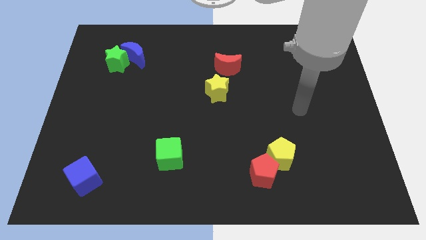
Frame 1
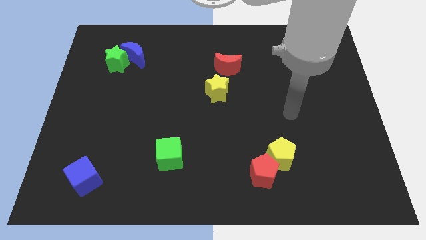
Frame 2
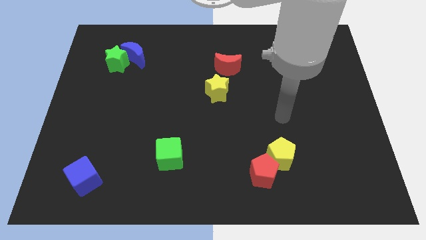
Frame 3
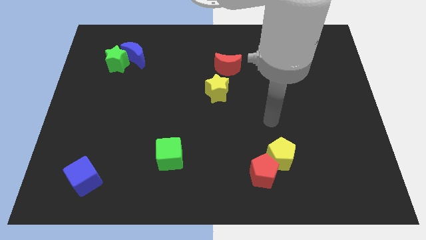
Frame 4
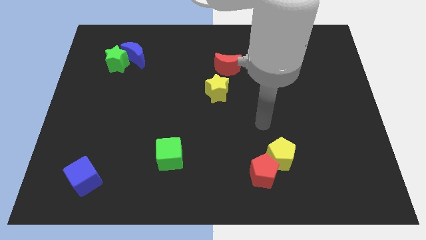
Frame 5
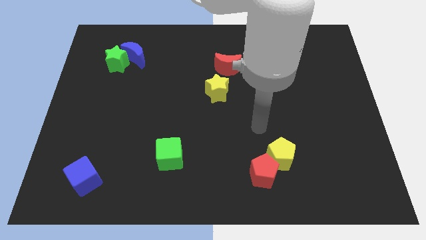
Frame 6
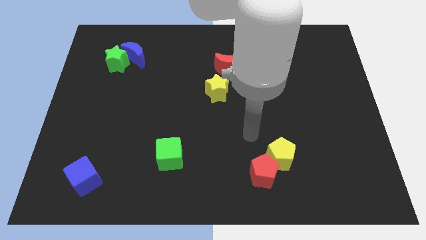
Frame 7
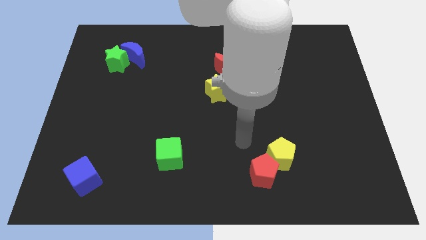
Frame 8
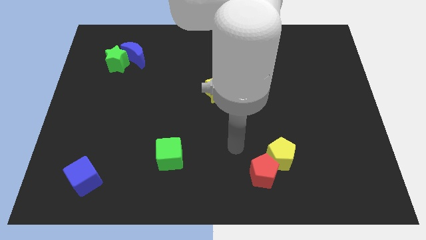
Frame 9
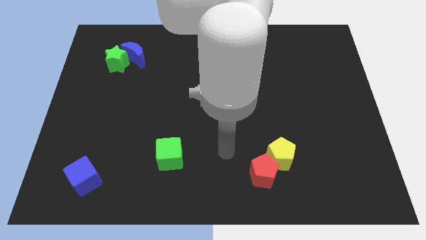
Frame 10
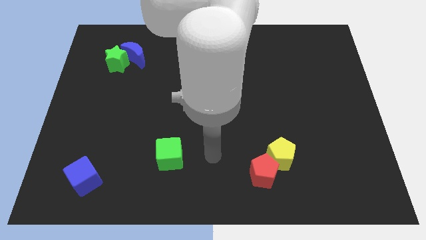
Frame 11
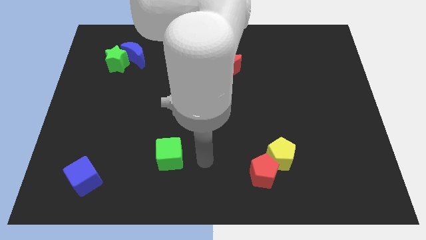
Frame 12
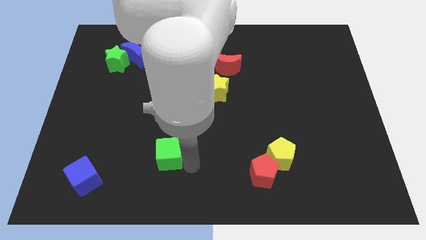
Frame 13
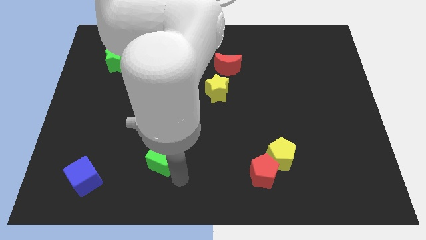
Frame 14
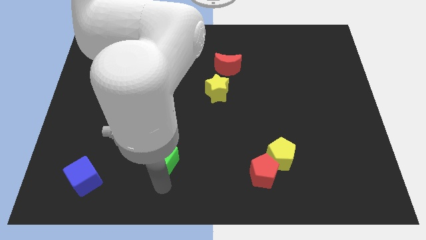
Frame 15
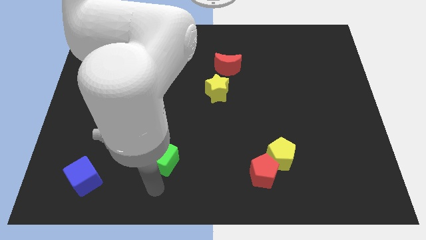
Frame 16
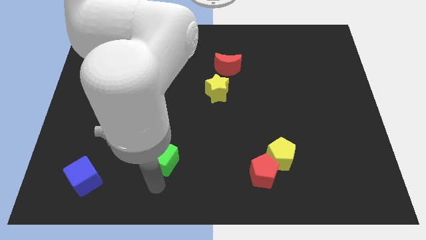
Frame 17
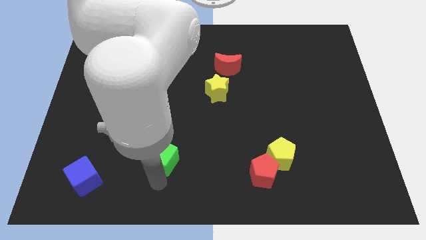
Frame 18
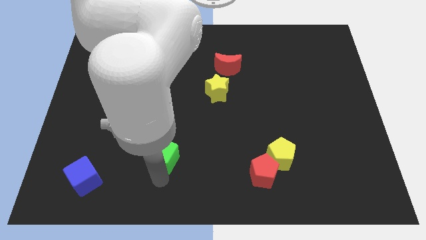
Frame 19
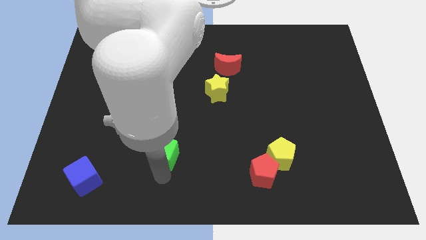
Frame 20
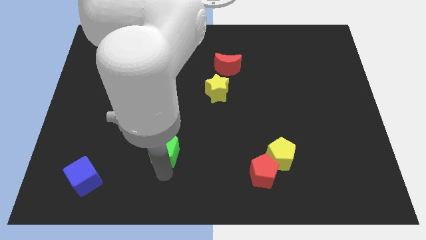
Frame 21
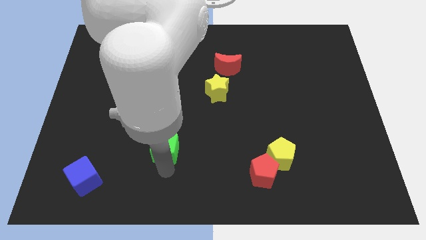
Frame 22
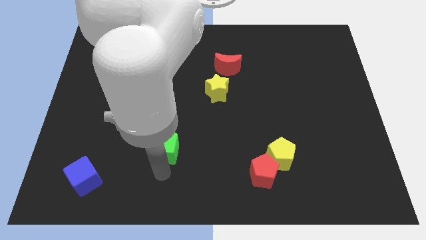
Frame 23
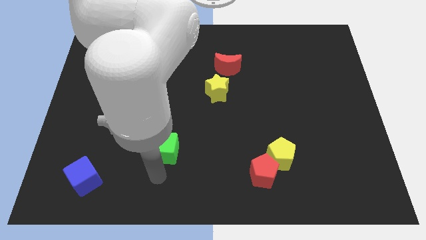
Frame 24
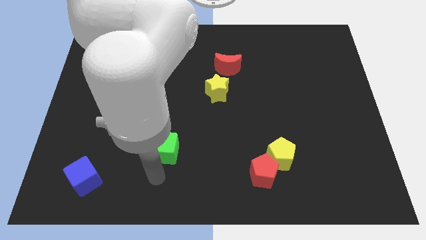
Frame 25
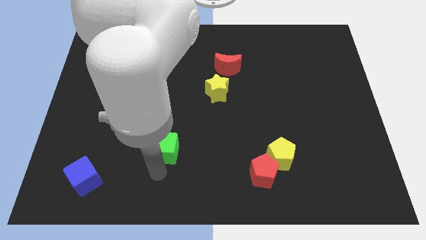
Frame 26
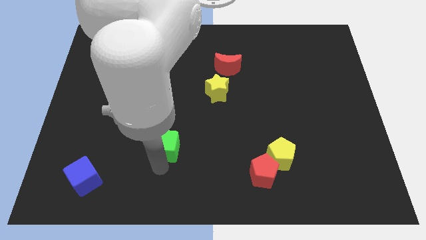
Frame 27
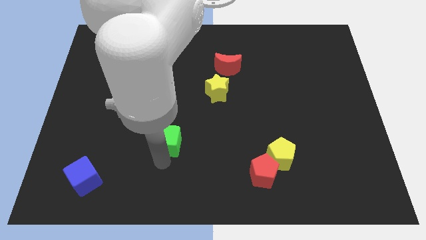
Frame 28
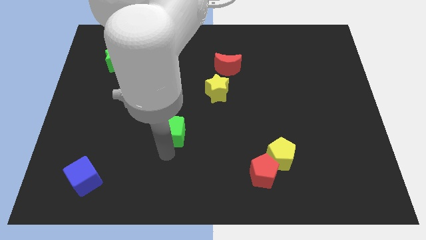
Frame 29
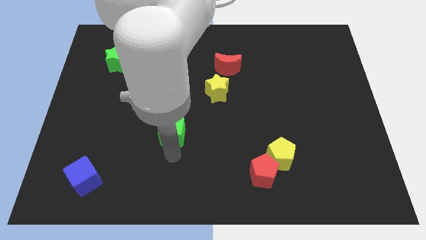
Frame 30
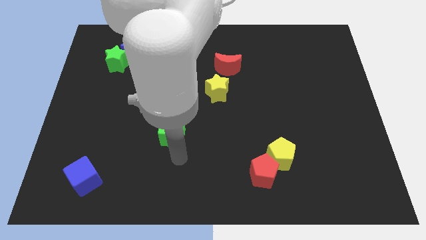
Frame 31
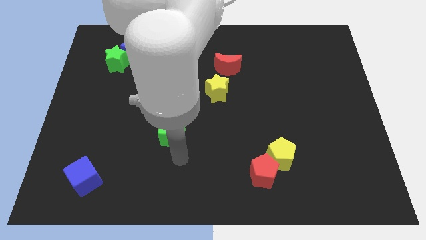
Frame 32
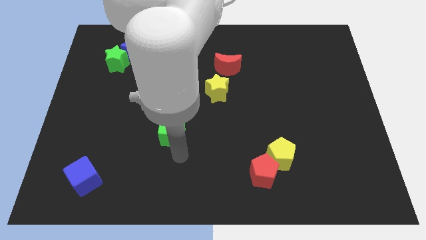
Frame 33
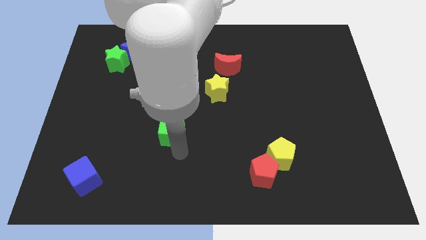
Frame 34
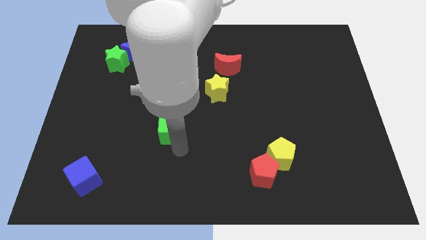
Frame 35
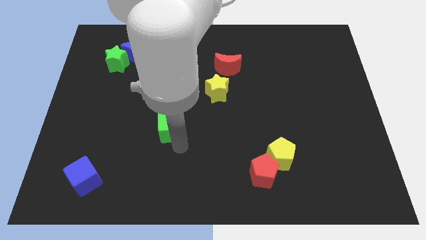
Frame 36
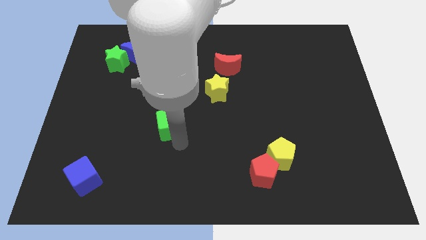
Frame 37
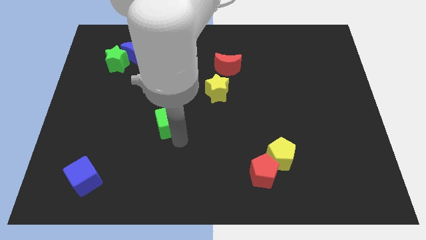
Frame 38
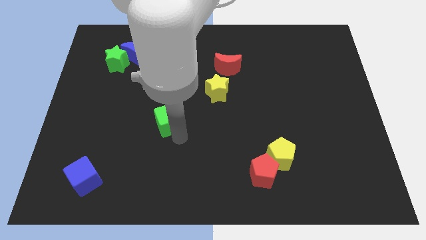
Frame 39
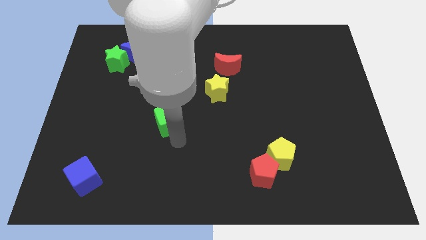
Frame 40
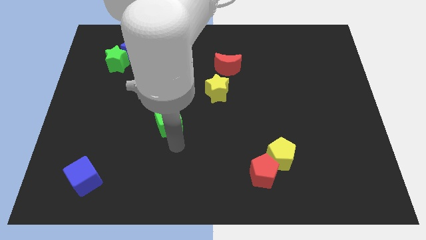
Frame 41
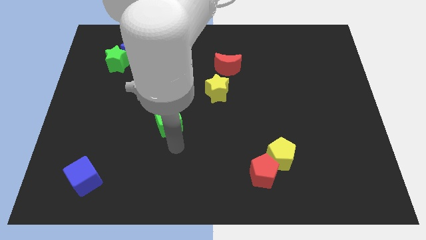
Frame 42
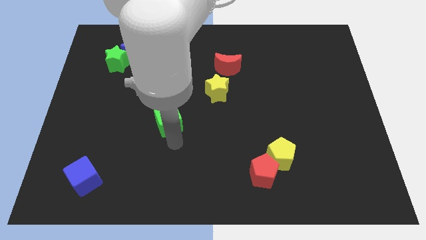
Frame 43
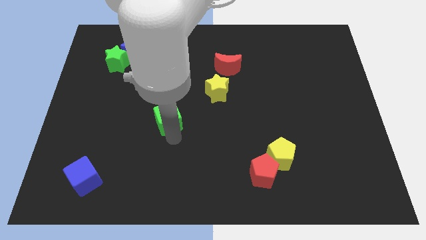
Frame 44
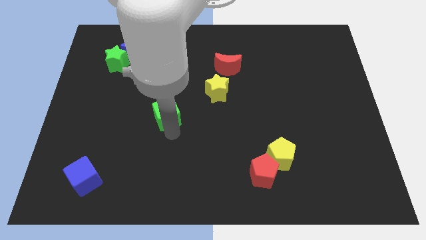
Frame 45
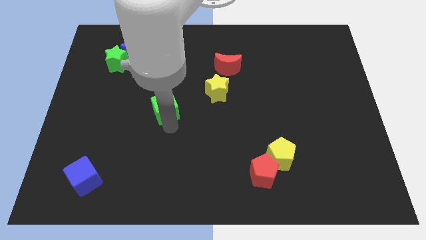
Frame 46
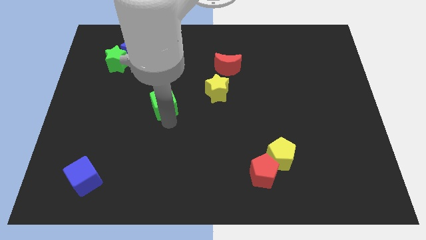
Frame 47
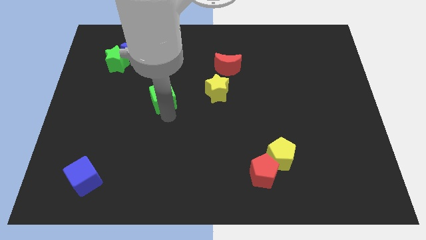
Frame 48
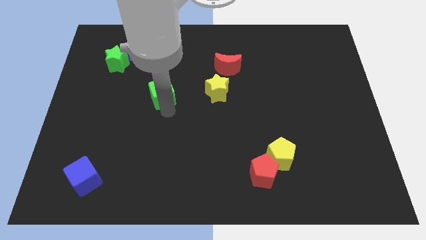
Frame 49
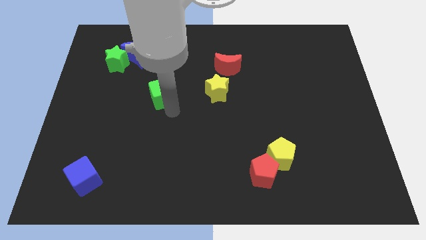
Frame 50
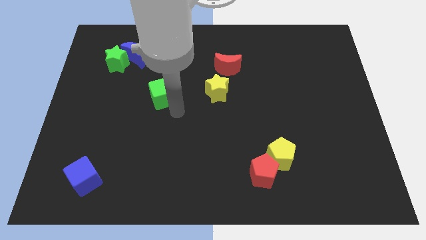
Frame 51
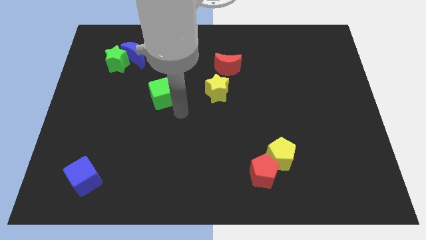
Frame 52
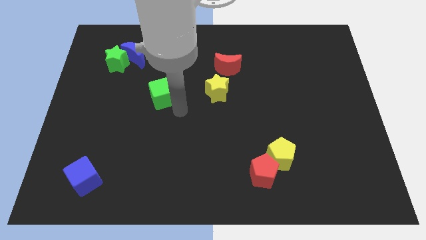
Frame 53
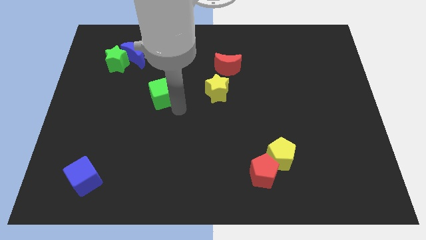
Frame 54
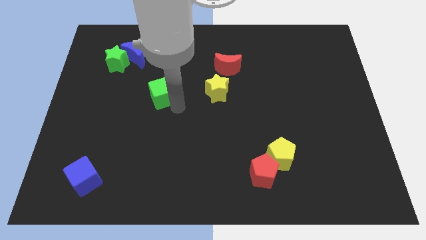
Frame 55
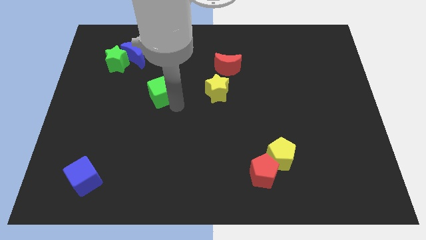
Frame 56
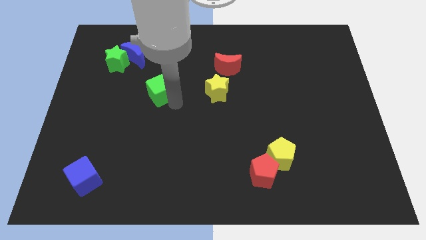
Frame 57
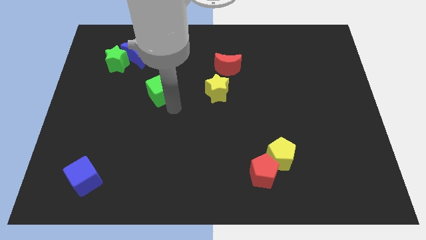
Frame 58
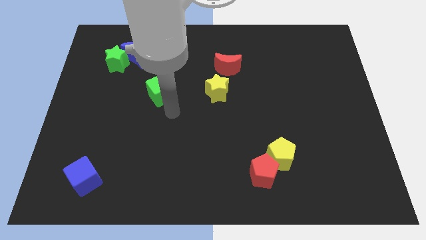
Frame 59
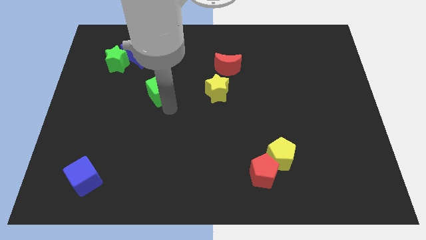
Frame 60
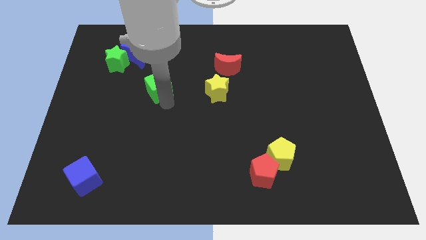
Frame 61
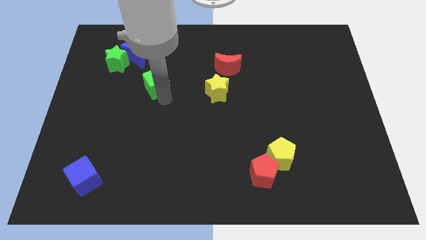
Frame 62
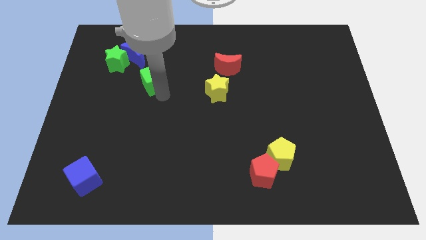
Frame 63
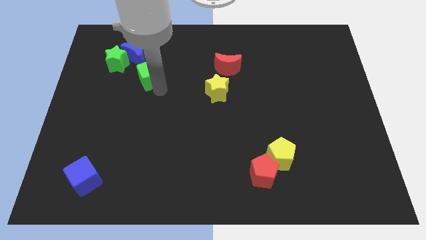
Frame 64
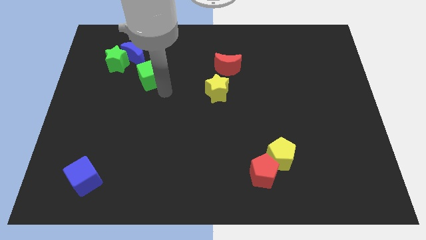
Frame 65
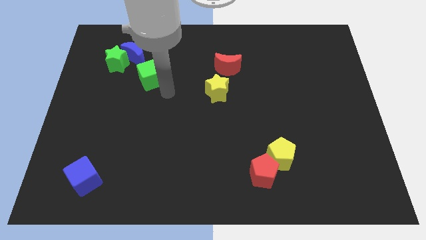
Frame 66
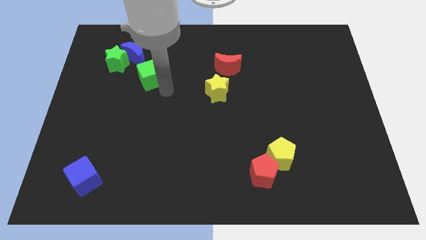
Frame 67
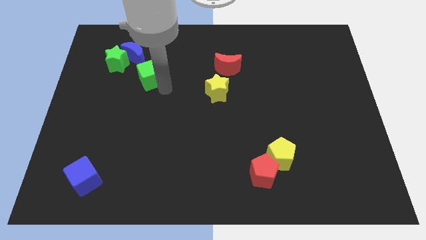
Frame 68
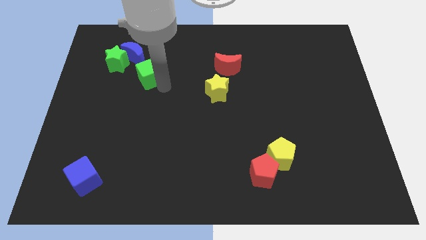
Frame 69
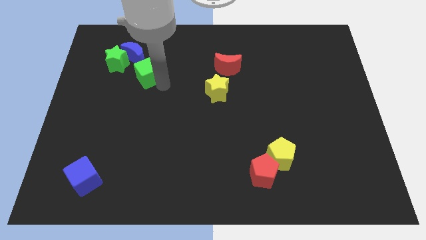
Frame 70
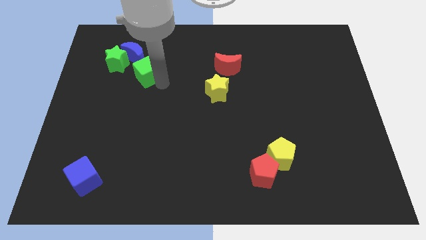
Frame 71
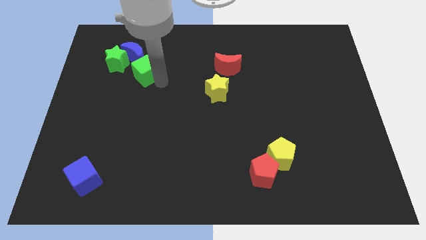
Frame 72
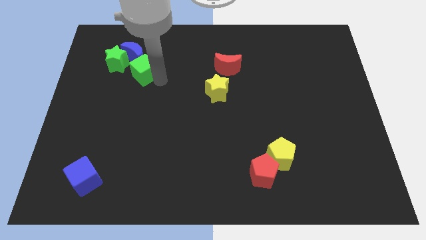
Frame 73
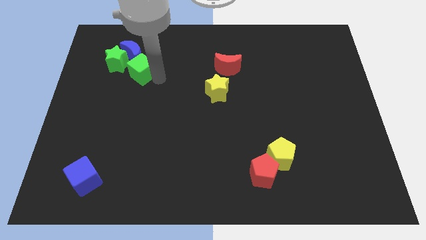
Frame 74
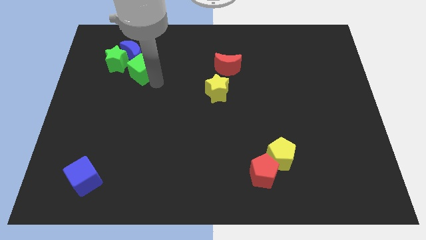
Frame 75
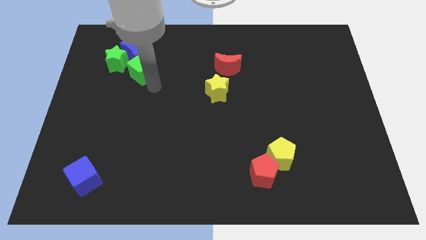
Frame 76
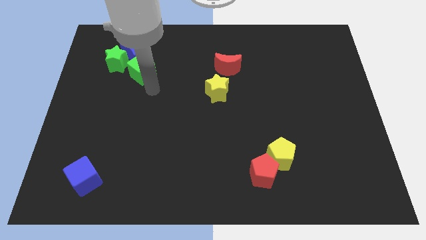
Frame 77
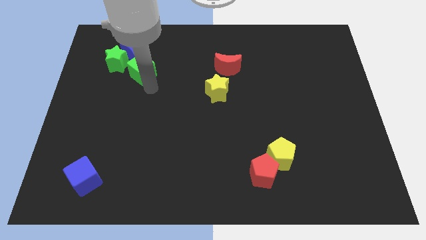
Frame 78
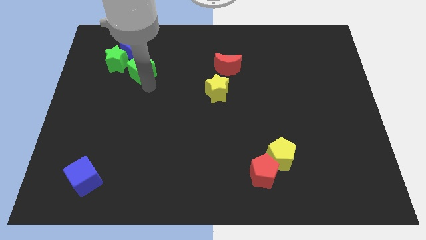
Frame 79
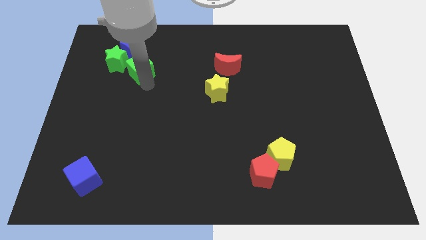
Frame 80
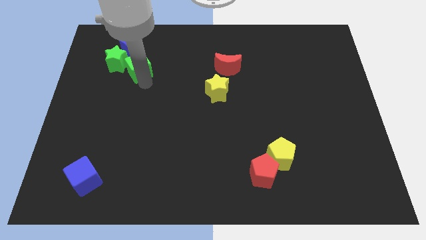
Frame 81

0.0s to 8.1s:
put the green cube close to the blue moon
